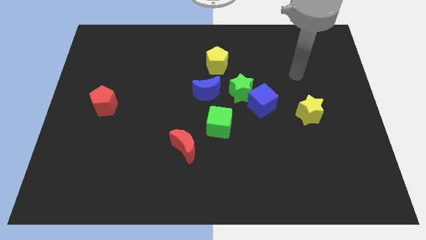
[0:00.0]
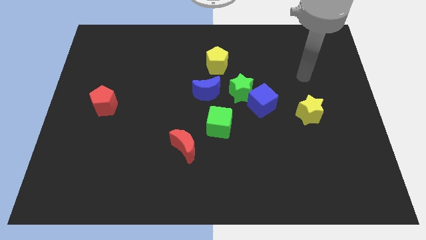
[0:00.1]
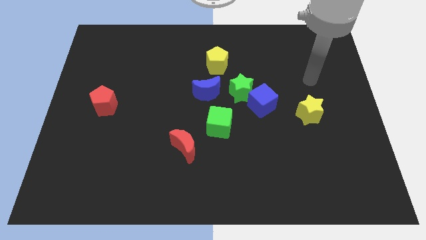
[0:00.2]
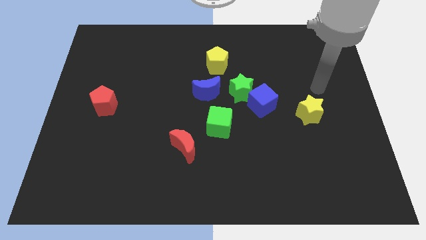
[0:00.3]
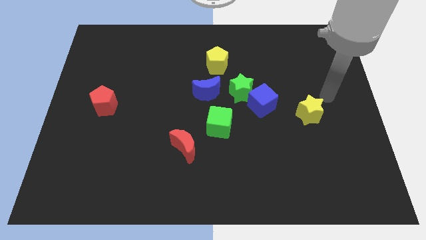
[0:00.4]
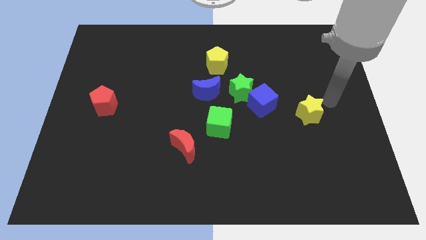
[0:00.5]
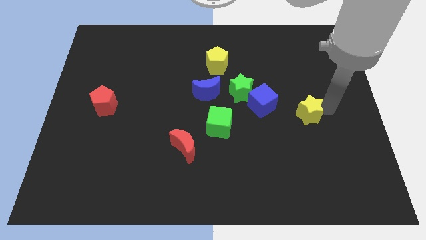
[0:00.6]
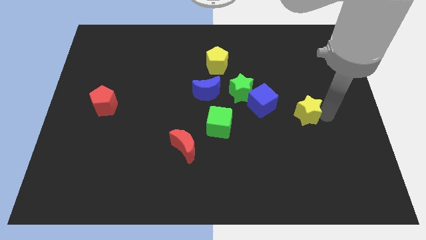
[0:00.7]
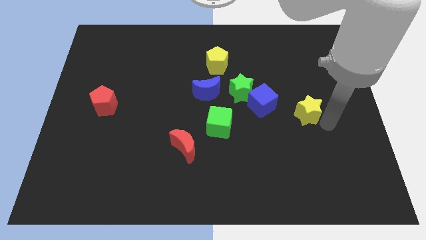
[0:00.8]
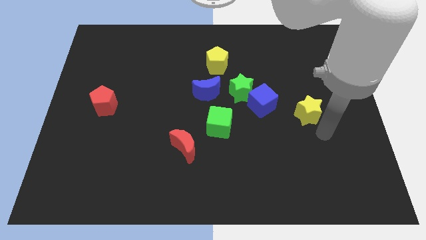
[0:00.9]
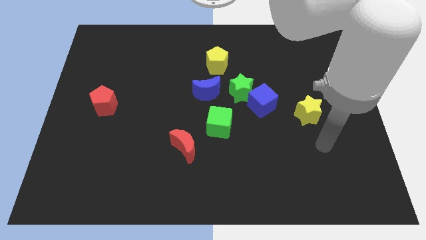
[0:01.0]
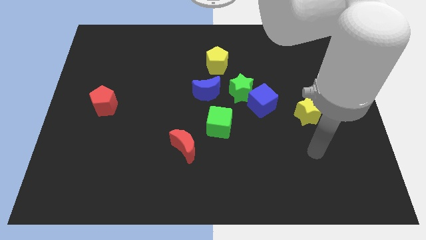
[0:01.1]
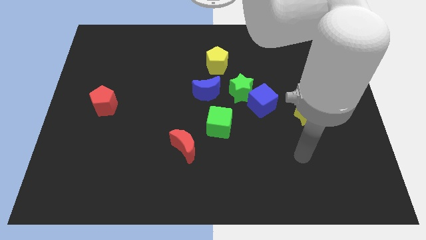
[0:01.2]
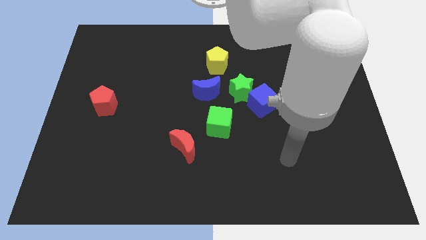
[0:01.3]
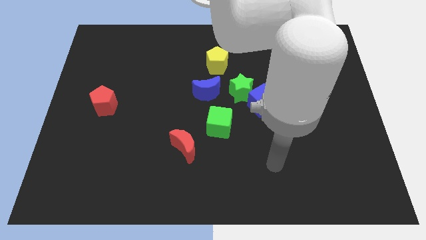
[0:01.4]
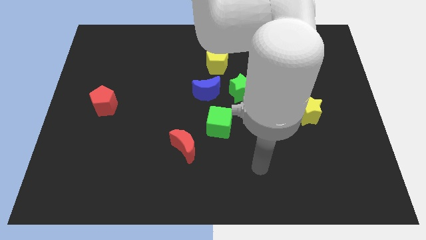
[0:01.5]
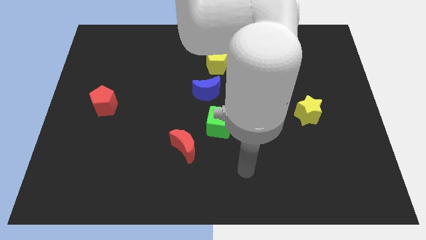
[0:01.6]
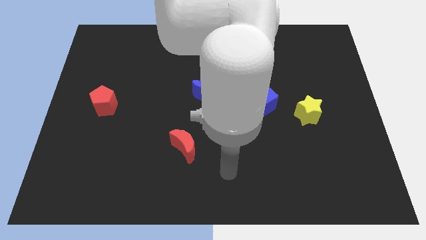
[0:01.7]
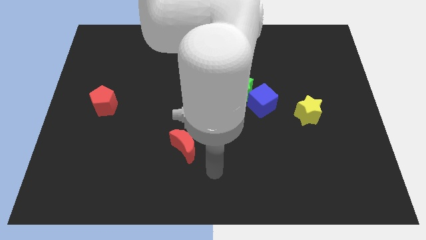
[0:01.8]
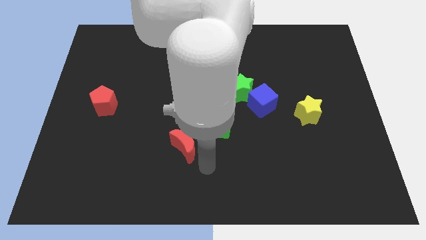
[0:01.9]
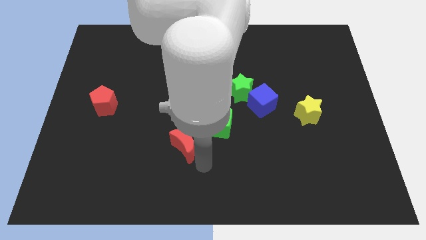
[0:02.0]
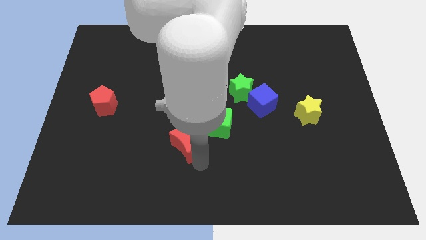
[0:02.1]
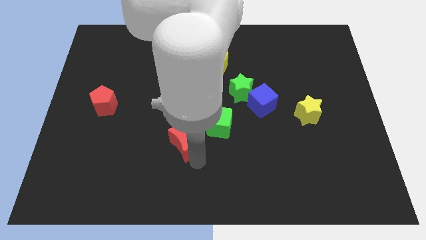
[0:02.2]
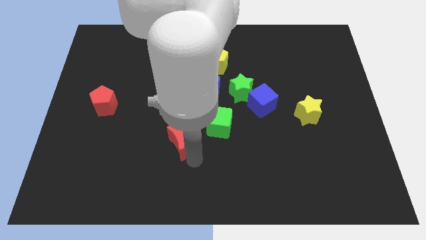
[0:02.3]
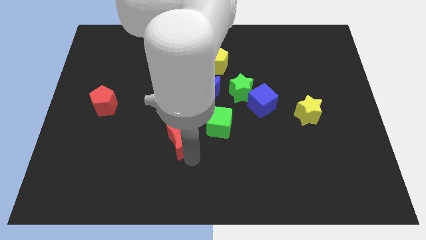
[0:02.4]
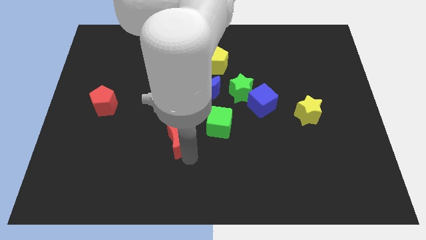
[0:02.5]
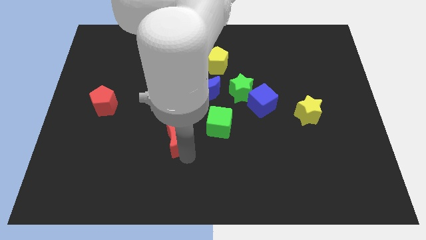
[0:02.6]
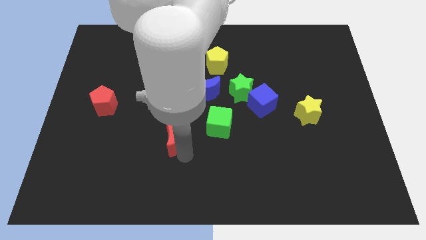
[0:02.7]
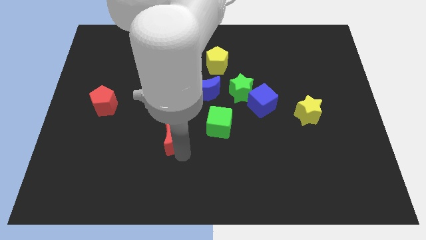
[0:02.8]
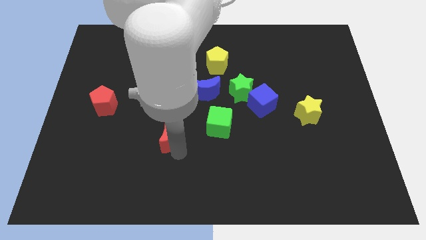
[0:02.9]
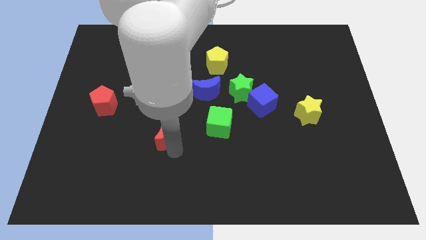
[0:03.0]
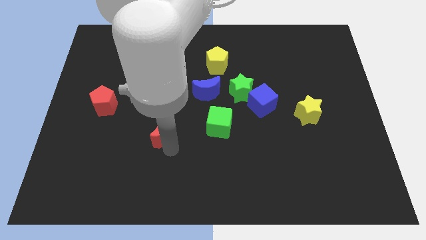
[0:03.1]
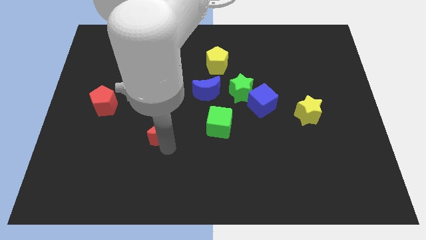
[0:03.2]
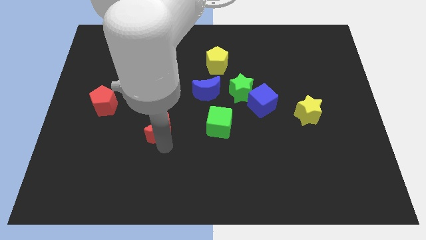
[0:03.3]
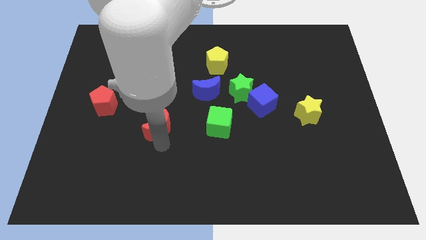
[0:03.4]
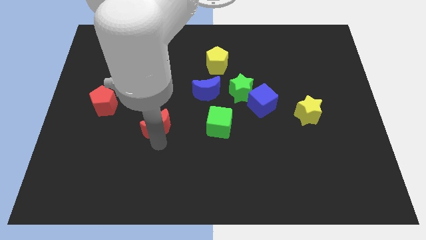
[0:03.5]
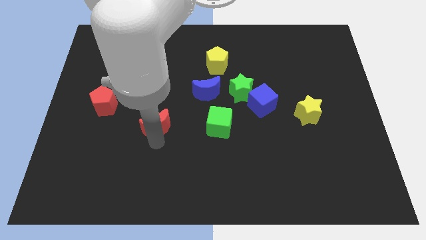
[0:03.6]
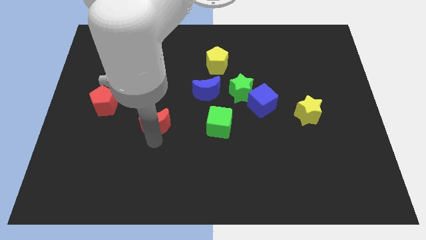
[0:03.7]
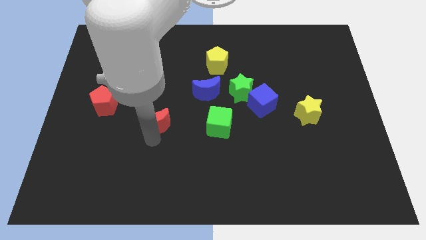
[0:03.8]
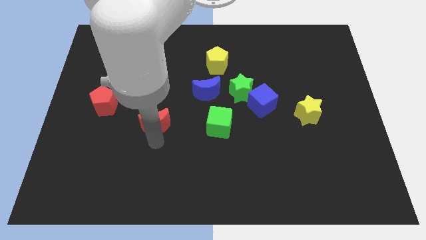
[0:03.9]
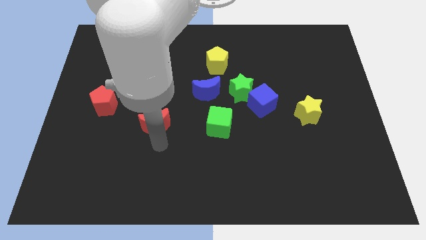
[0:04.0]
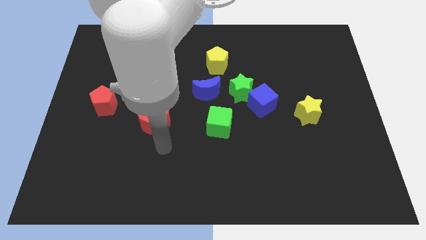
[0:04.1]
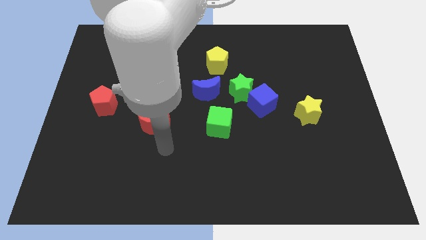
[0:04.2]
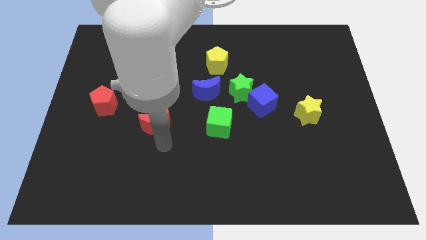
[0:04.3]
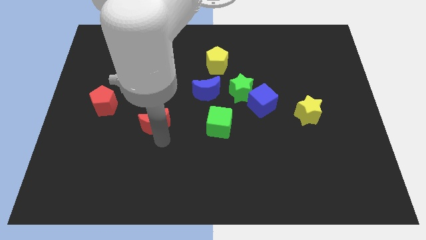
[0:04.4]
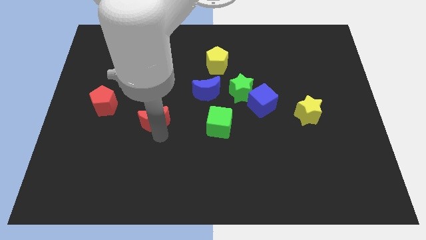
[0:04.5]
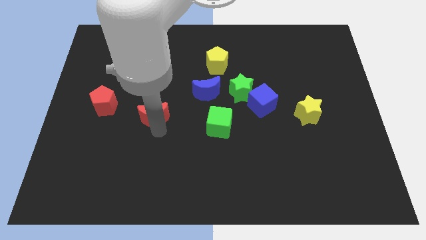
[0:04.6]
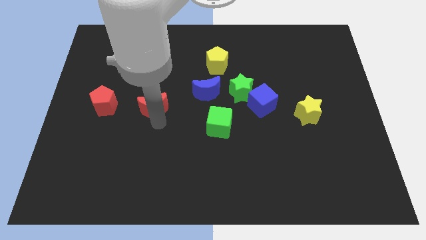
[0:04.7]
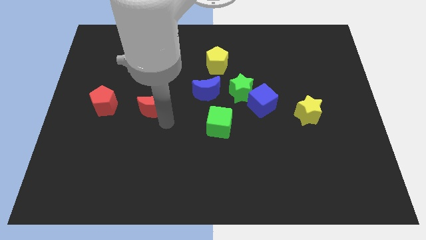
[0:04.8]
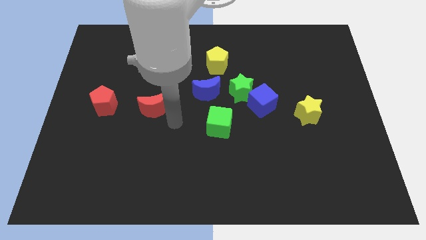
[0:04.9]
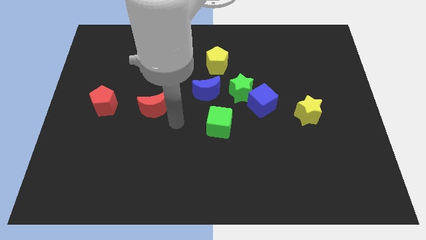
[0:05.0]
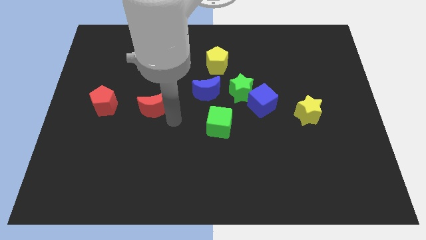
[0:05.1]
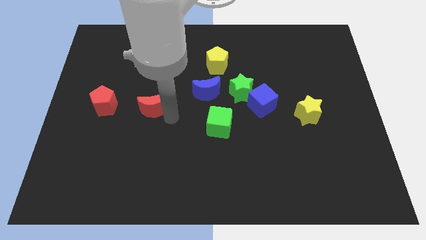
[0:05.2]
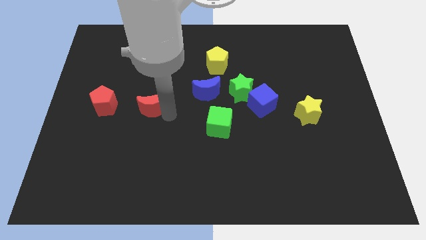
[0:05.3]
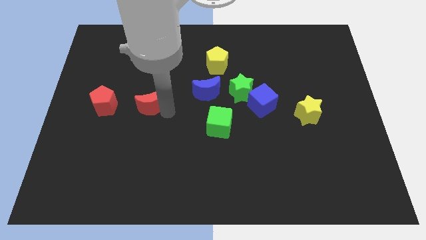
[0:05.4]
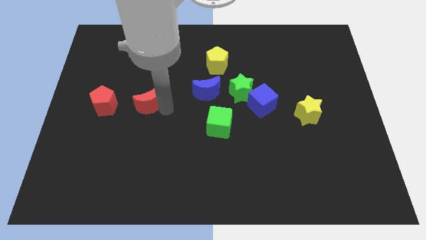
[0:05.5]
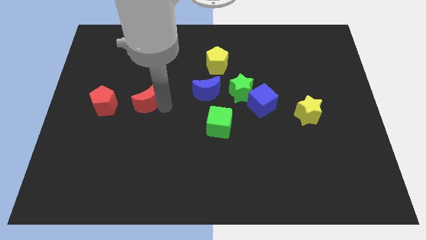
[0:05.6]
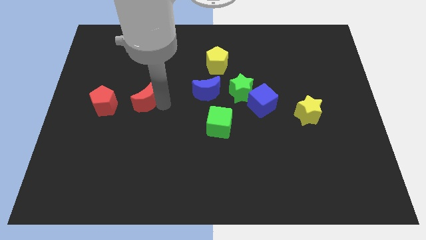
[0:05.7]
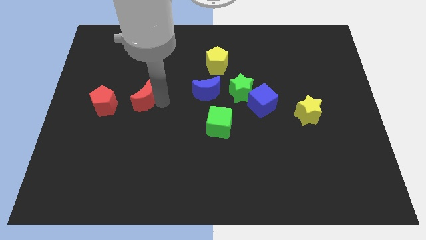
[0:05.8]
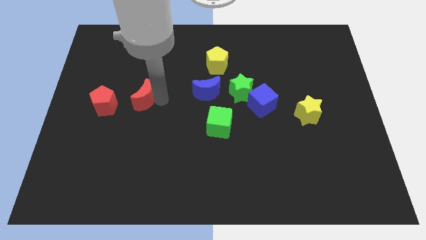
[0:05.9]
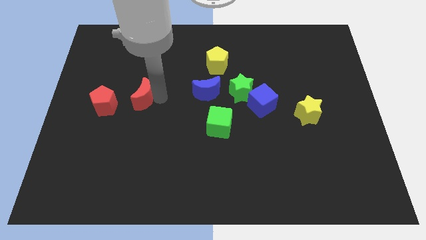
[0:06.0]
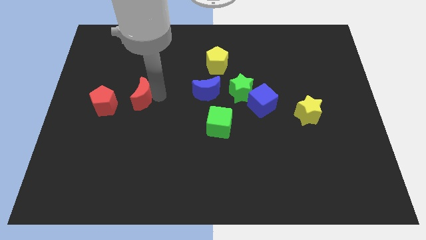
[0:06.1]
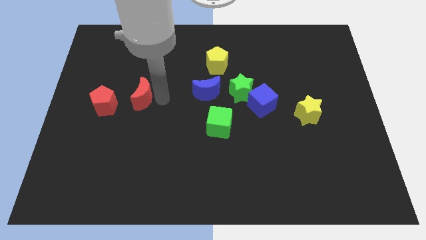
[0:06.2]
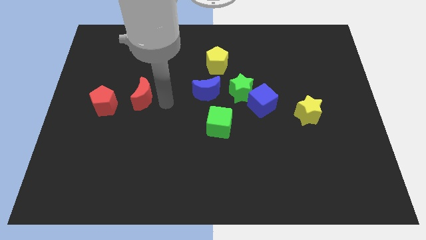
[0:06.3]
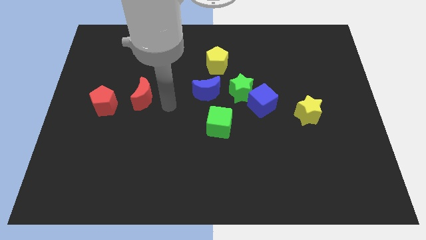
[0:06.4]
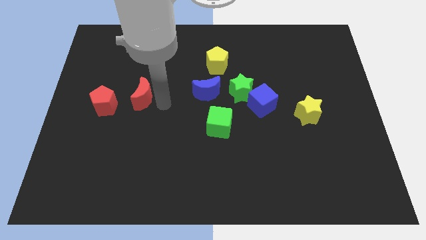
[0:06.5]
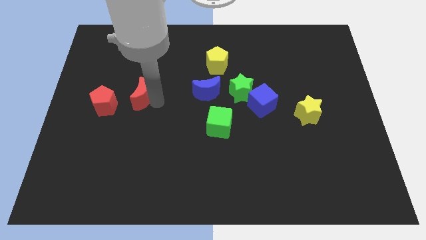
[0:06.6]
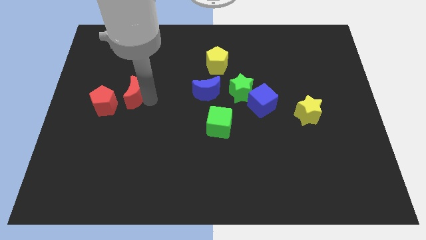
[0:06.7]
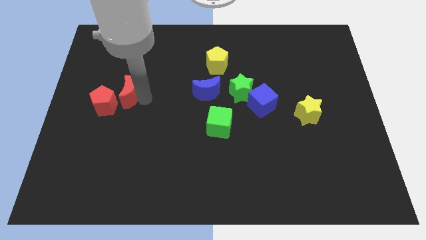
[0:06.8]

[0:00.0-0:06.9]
push the red moon upwards and left diagonally

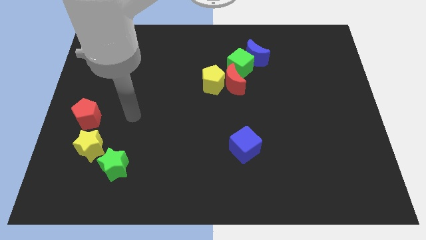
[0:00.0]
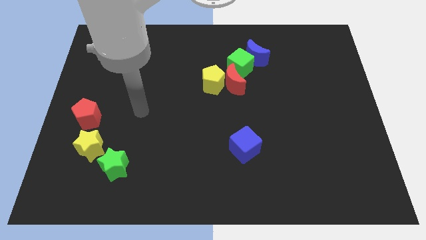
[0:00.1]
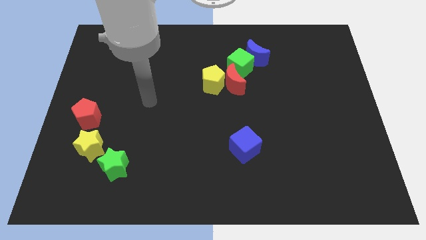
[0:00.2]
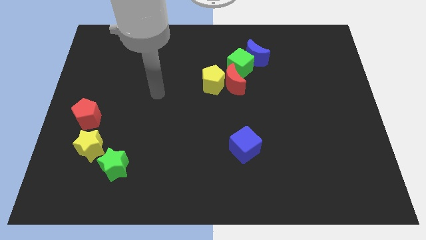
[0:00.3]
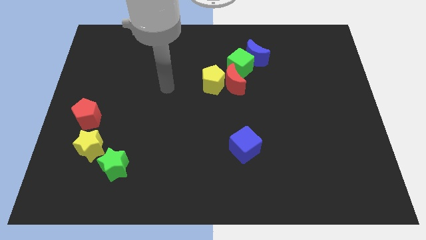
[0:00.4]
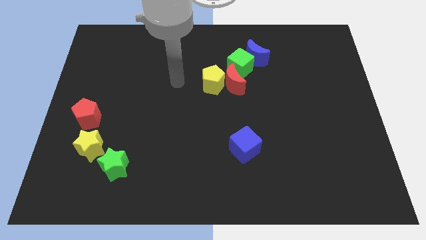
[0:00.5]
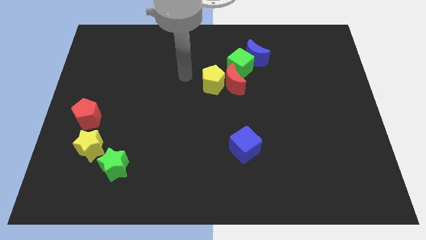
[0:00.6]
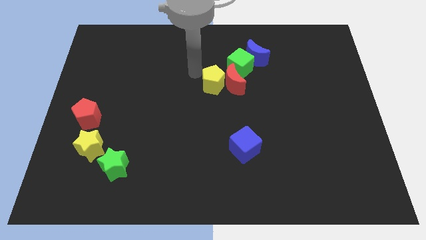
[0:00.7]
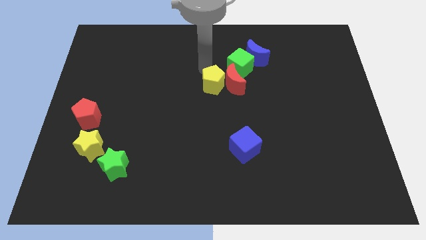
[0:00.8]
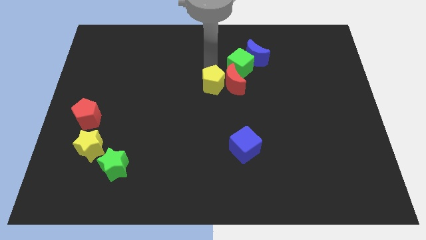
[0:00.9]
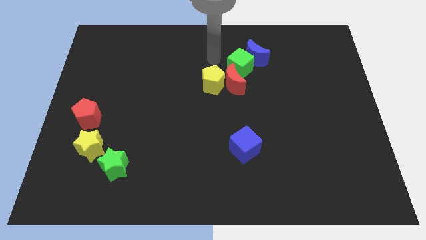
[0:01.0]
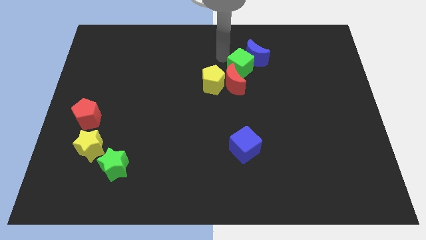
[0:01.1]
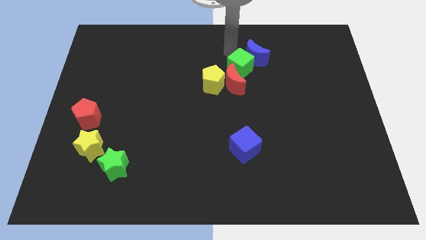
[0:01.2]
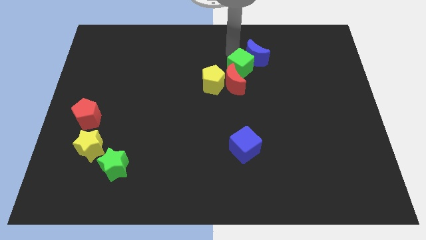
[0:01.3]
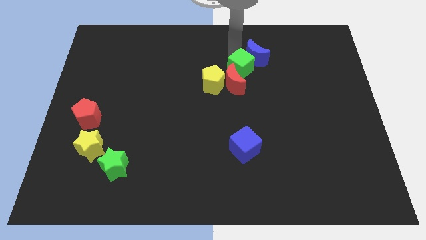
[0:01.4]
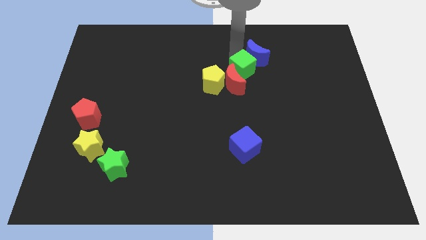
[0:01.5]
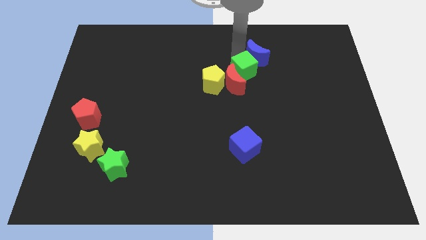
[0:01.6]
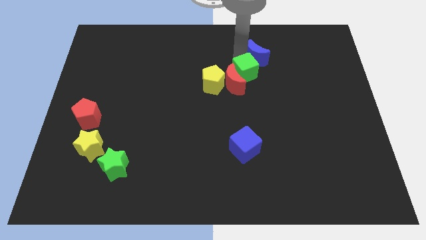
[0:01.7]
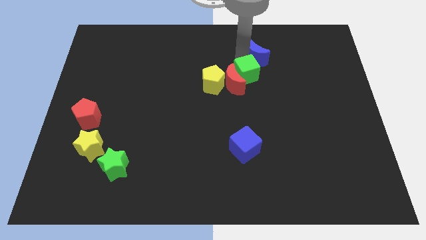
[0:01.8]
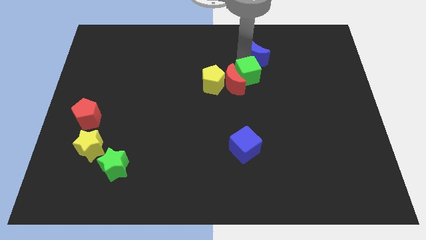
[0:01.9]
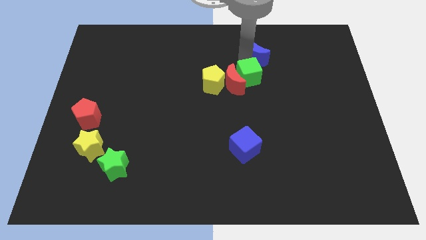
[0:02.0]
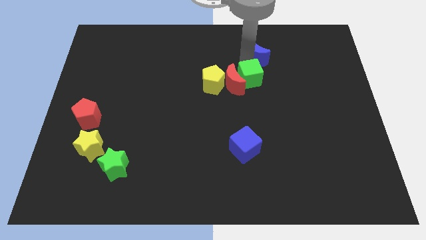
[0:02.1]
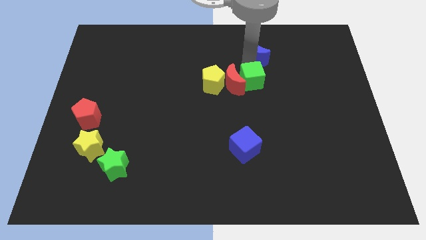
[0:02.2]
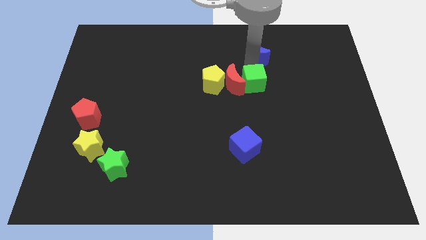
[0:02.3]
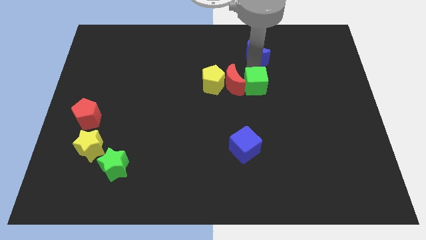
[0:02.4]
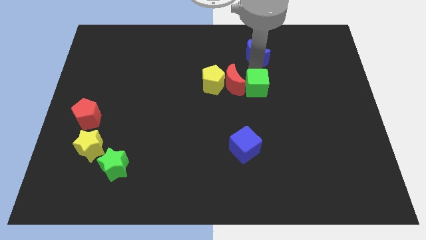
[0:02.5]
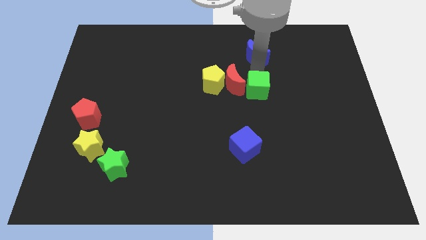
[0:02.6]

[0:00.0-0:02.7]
push the green cube a bit down
